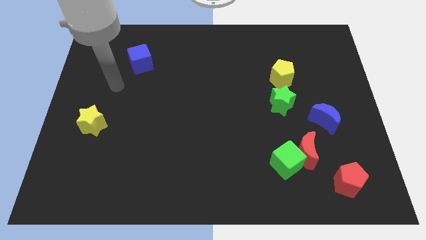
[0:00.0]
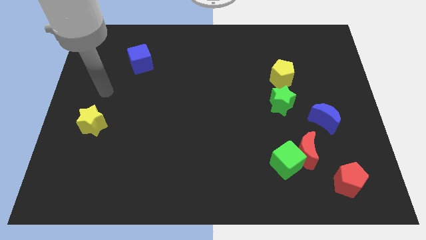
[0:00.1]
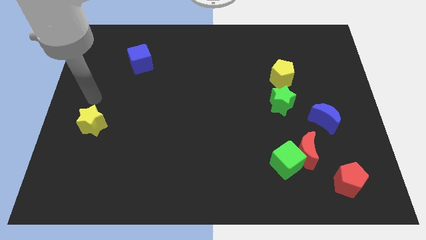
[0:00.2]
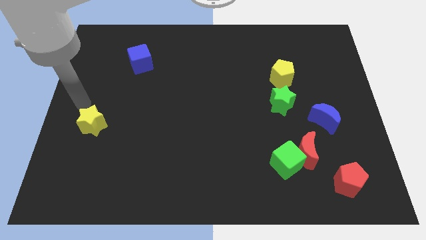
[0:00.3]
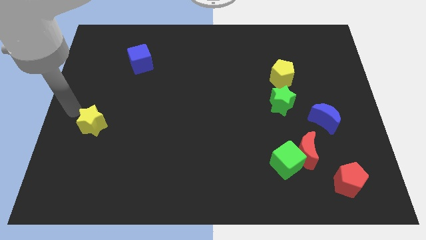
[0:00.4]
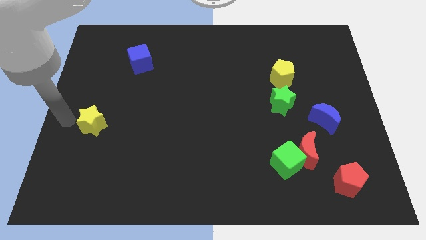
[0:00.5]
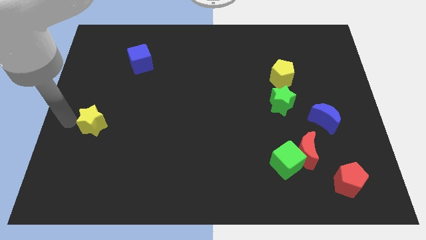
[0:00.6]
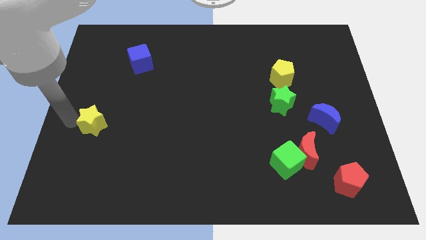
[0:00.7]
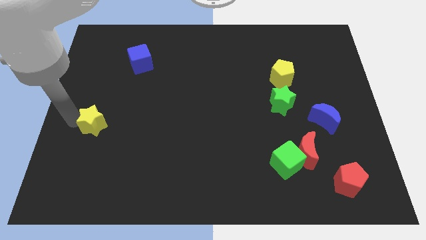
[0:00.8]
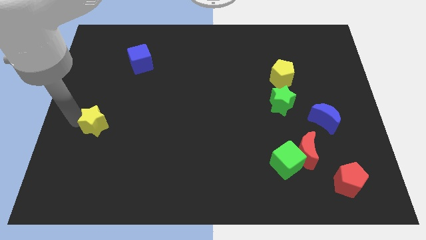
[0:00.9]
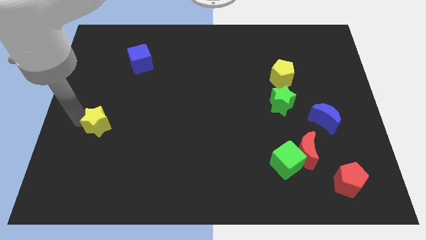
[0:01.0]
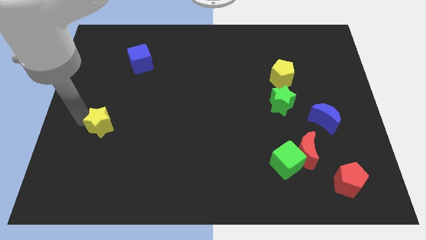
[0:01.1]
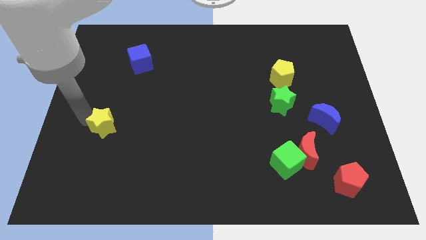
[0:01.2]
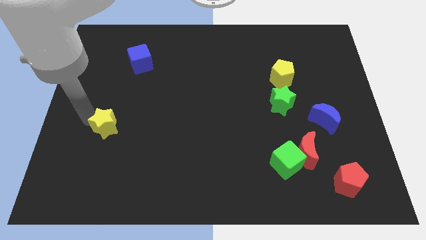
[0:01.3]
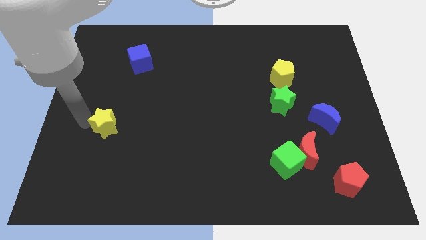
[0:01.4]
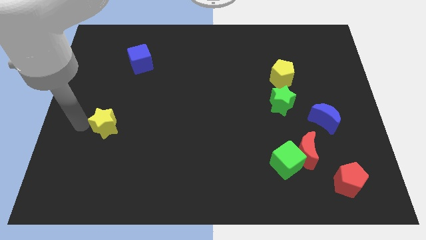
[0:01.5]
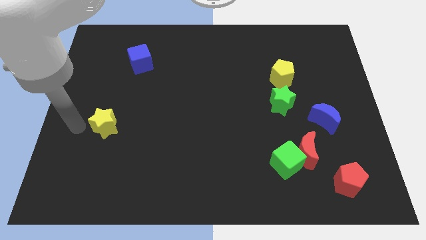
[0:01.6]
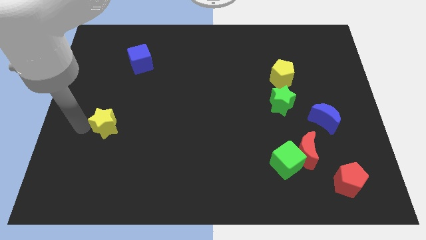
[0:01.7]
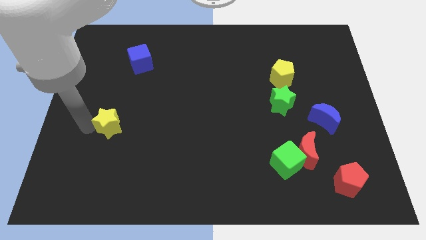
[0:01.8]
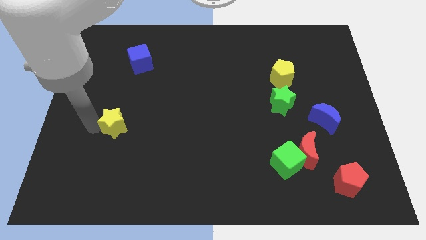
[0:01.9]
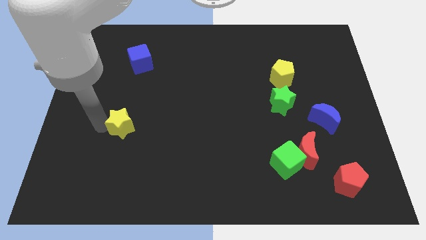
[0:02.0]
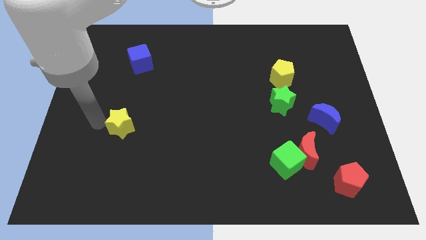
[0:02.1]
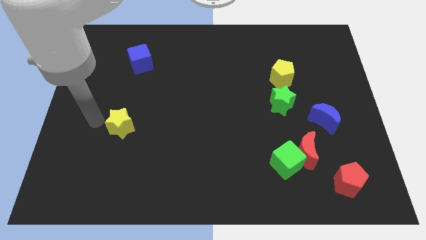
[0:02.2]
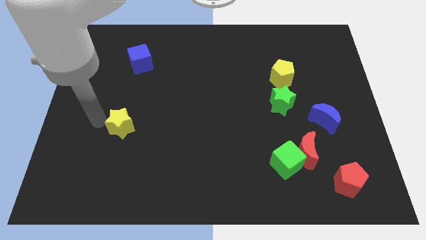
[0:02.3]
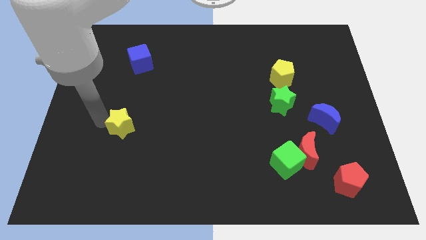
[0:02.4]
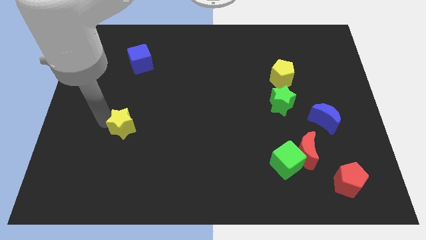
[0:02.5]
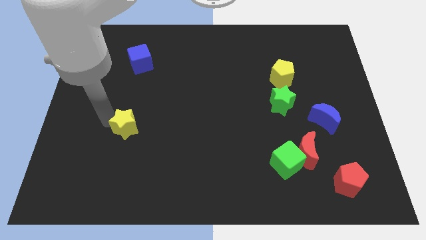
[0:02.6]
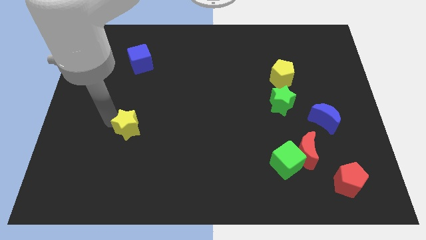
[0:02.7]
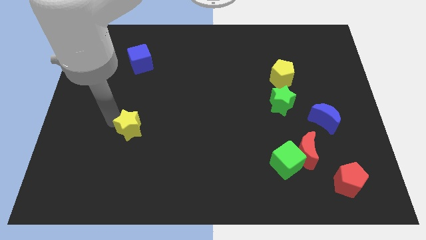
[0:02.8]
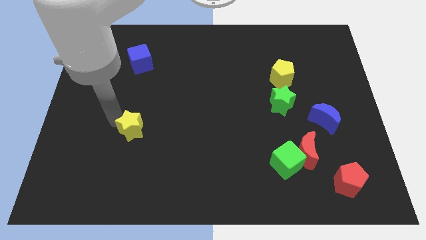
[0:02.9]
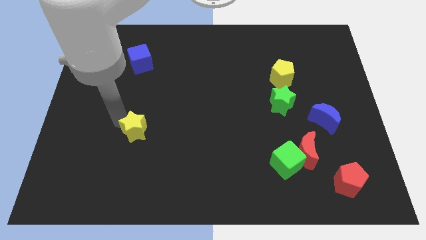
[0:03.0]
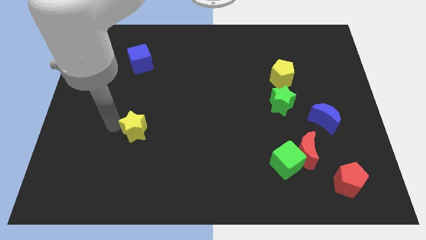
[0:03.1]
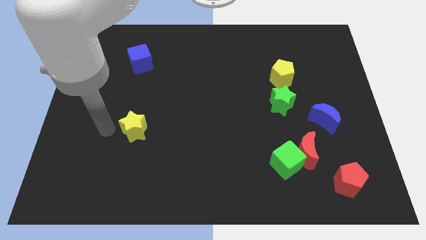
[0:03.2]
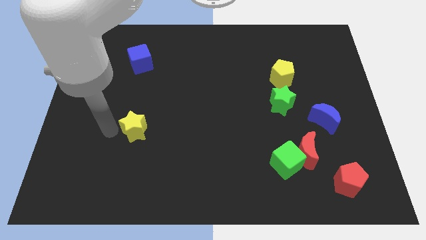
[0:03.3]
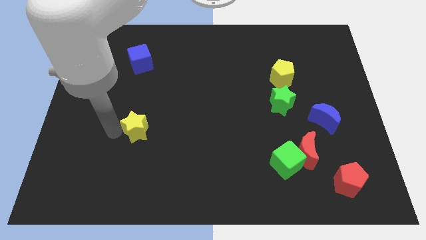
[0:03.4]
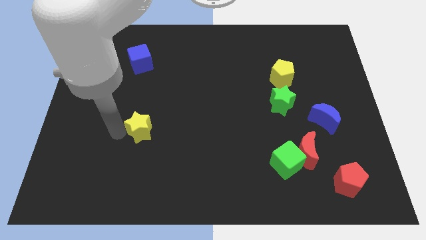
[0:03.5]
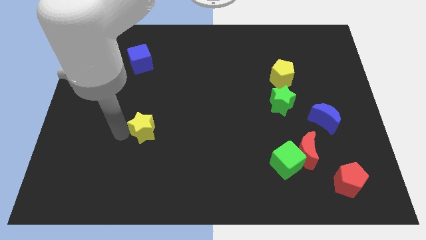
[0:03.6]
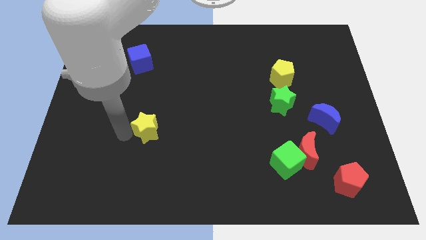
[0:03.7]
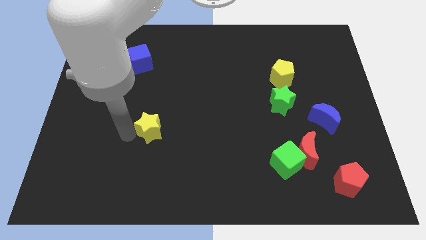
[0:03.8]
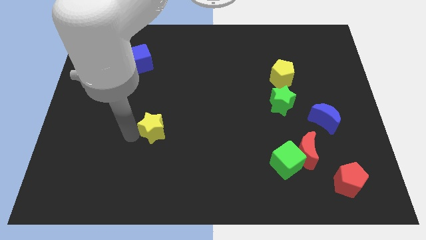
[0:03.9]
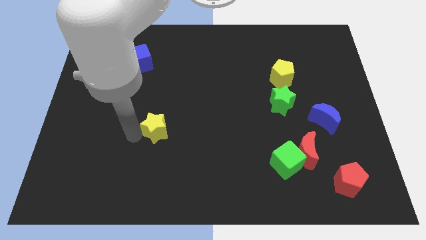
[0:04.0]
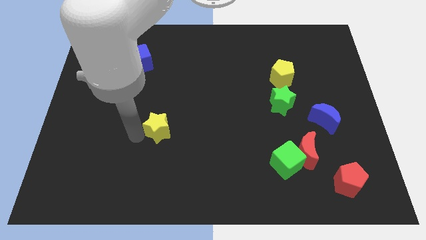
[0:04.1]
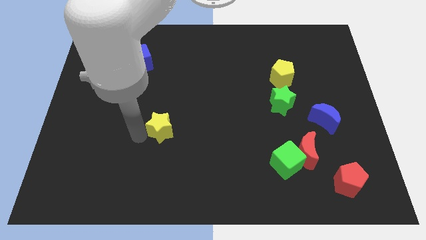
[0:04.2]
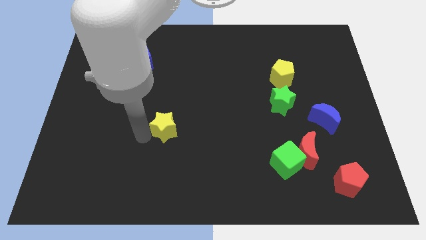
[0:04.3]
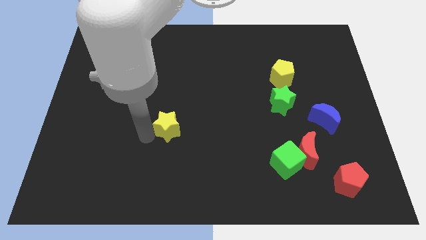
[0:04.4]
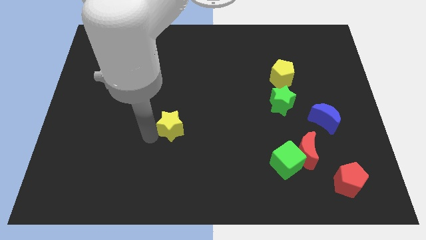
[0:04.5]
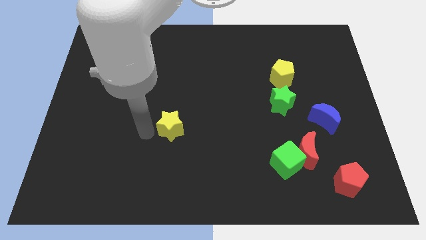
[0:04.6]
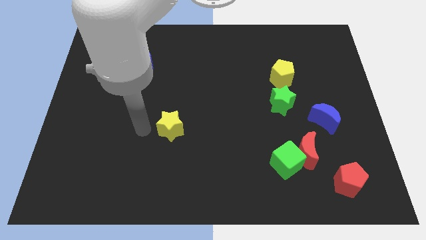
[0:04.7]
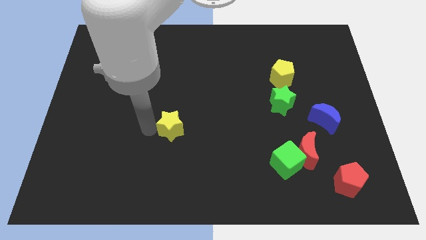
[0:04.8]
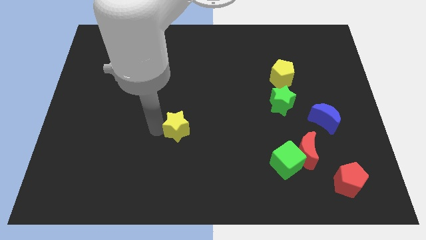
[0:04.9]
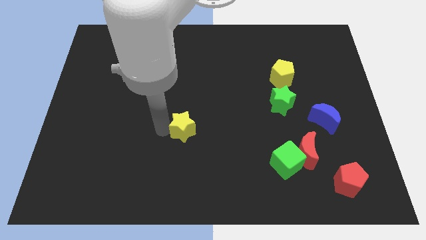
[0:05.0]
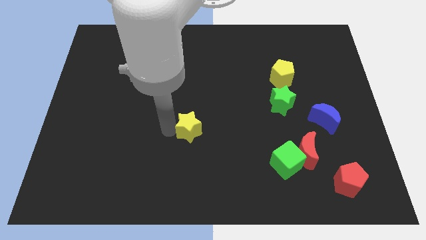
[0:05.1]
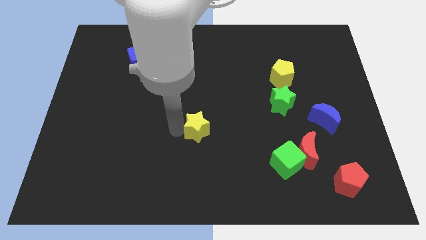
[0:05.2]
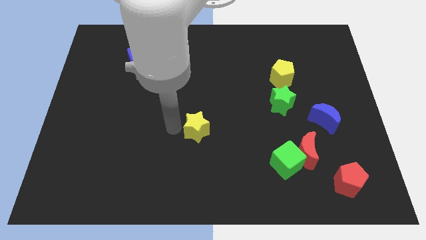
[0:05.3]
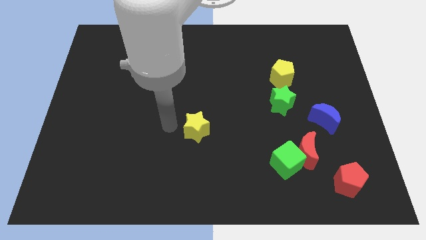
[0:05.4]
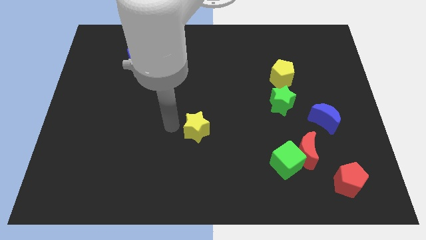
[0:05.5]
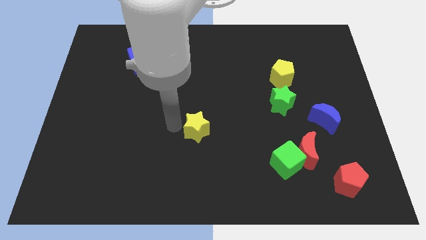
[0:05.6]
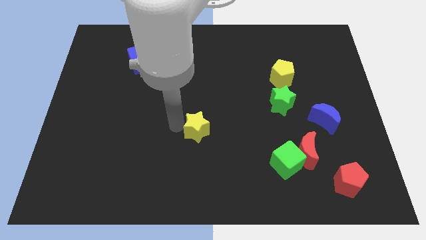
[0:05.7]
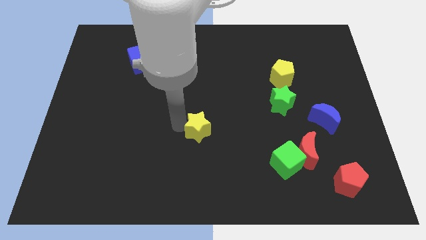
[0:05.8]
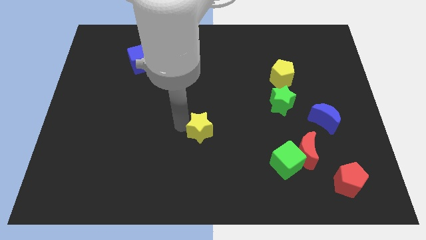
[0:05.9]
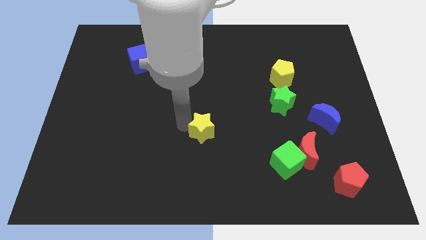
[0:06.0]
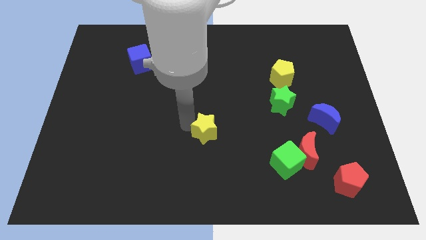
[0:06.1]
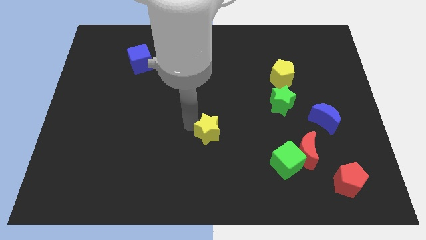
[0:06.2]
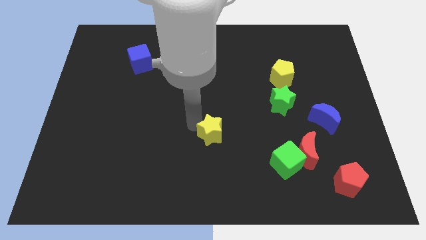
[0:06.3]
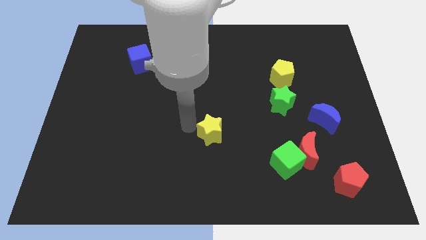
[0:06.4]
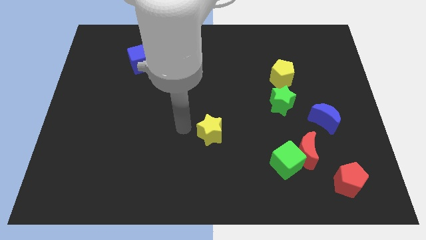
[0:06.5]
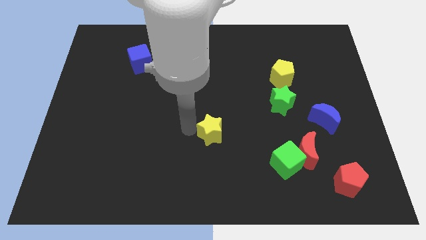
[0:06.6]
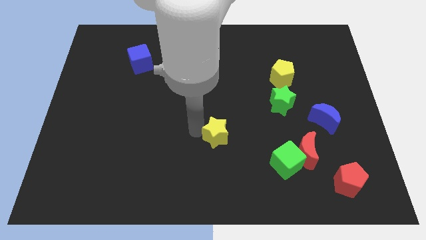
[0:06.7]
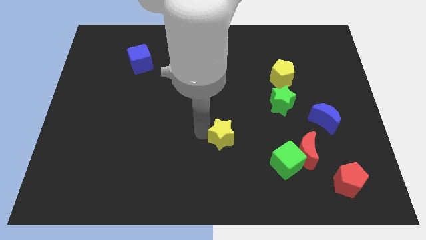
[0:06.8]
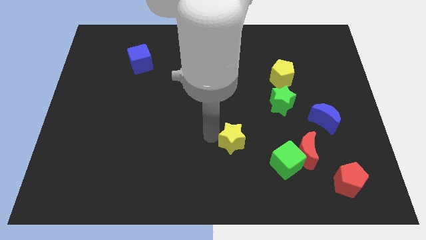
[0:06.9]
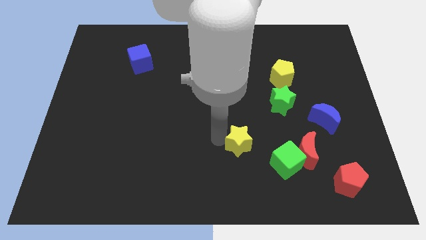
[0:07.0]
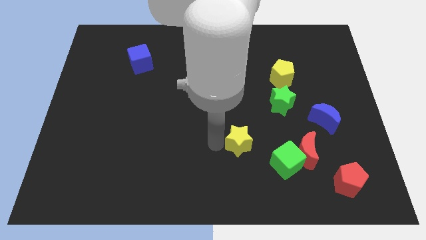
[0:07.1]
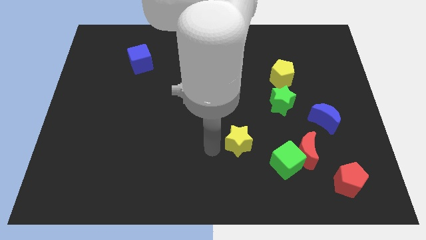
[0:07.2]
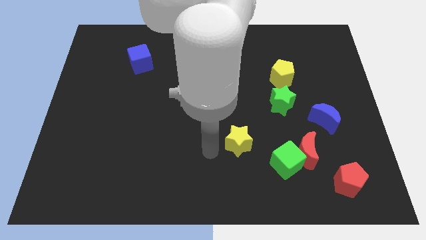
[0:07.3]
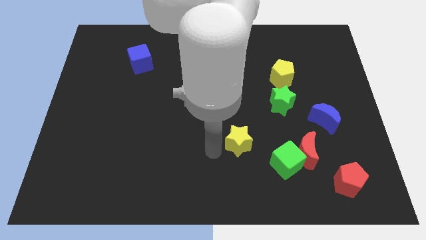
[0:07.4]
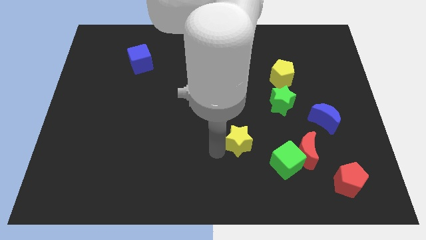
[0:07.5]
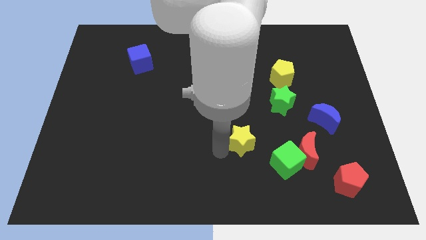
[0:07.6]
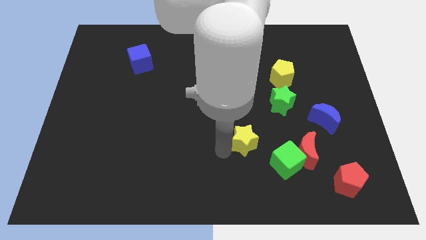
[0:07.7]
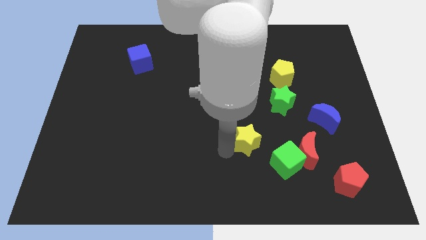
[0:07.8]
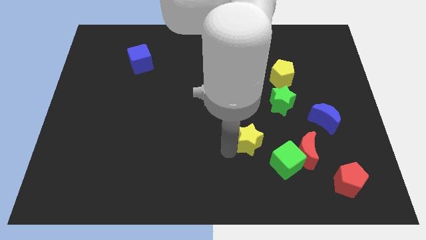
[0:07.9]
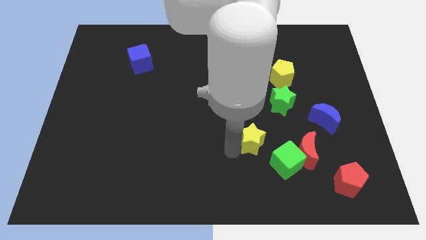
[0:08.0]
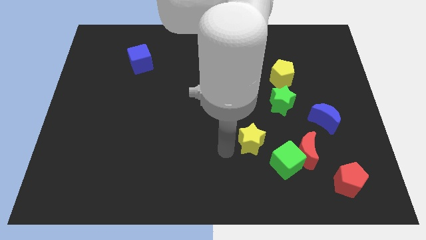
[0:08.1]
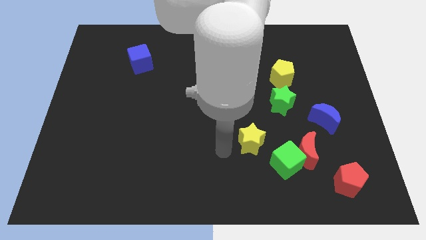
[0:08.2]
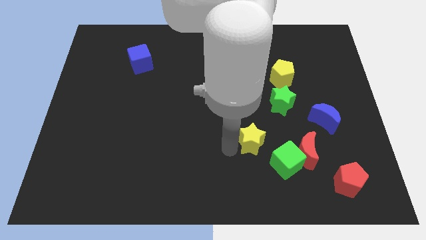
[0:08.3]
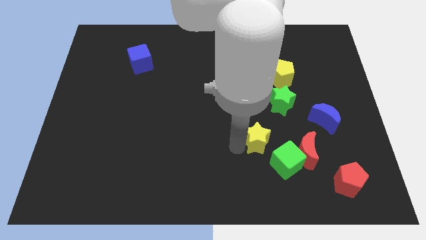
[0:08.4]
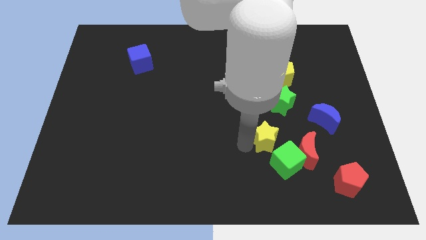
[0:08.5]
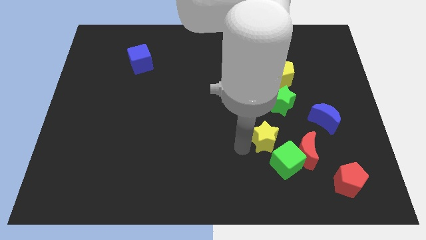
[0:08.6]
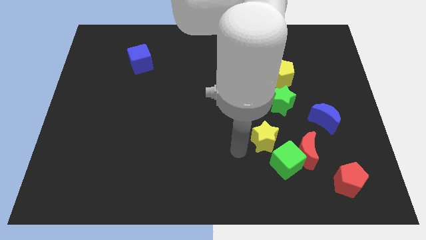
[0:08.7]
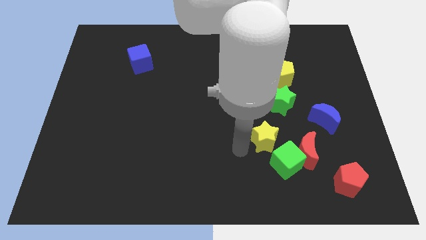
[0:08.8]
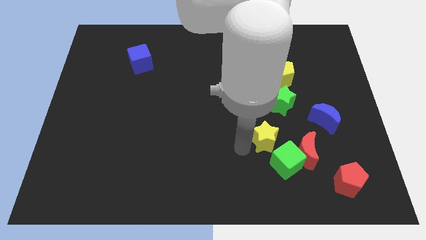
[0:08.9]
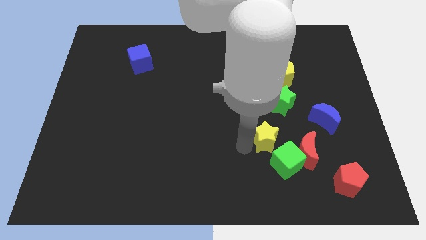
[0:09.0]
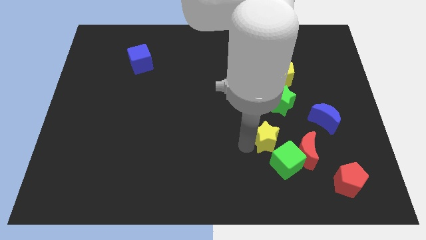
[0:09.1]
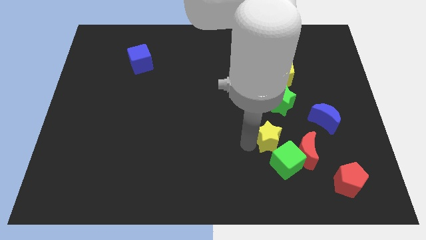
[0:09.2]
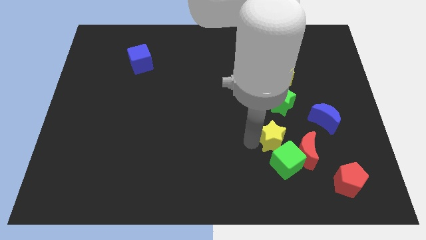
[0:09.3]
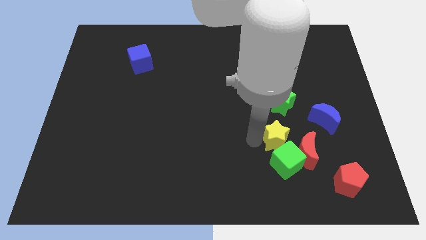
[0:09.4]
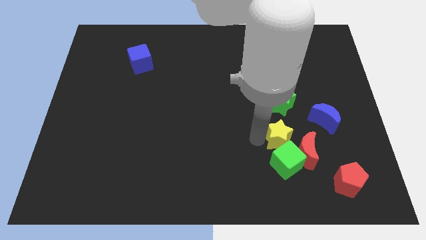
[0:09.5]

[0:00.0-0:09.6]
put the yellow star to the top right of the green cube
